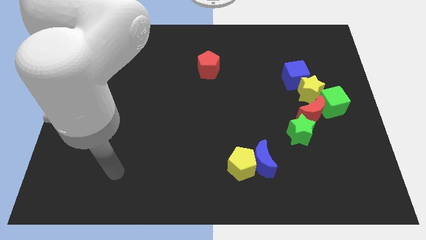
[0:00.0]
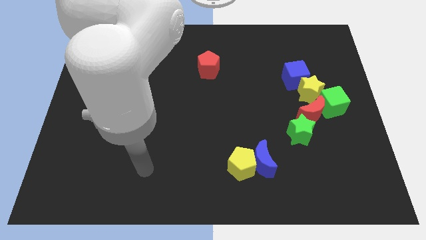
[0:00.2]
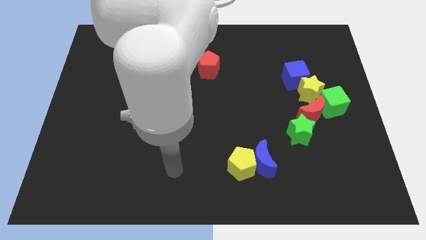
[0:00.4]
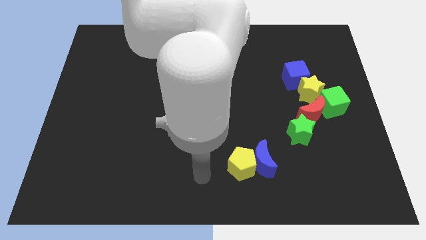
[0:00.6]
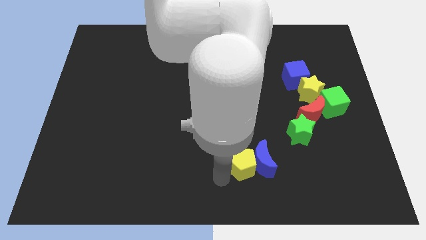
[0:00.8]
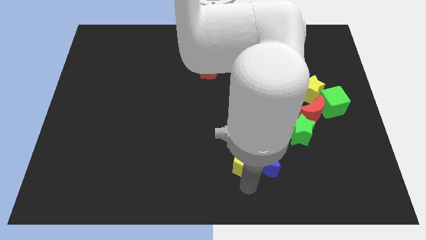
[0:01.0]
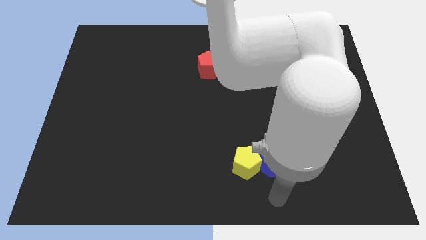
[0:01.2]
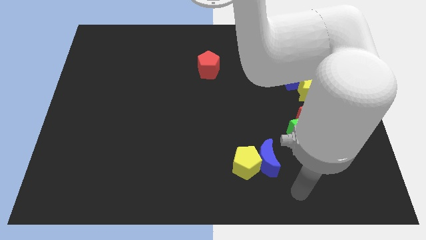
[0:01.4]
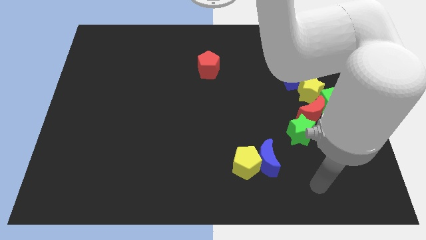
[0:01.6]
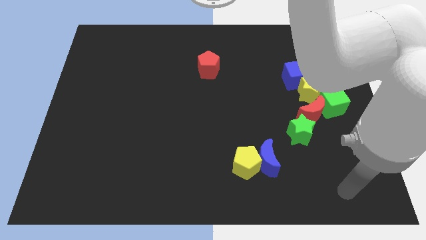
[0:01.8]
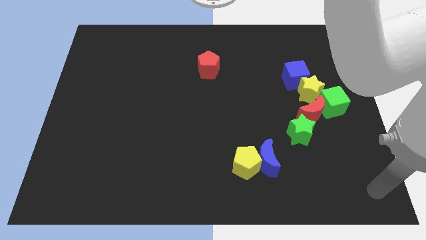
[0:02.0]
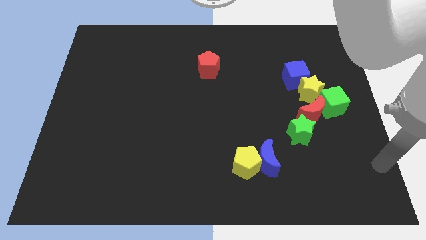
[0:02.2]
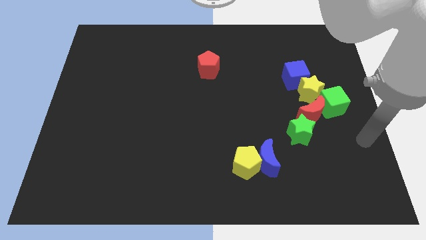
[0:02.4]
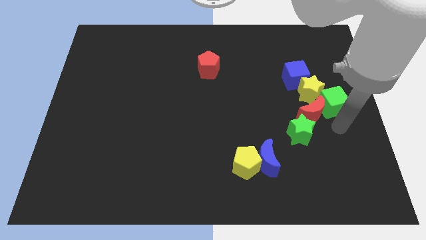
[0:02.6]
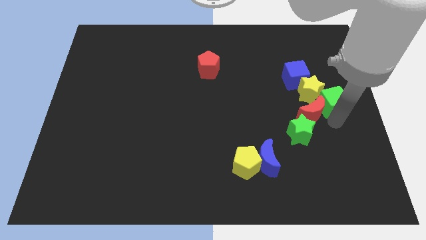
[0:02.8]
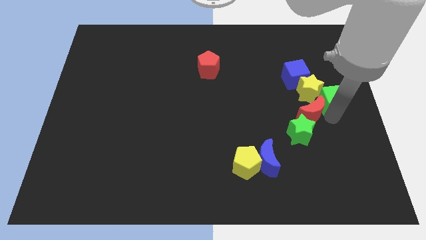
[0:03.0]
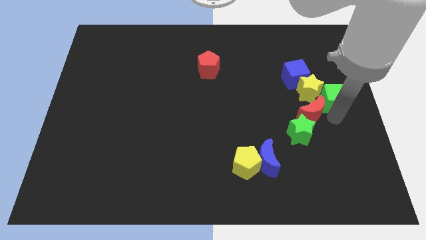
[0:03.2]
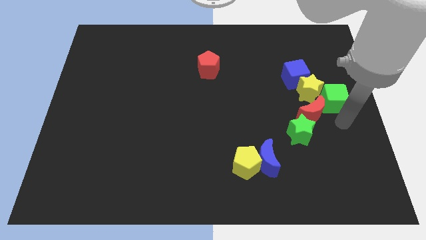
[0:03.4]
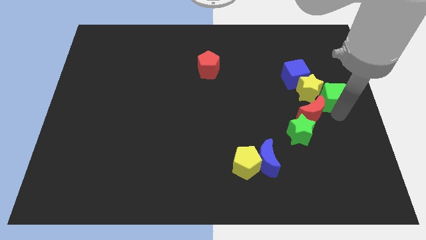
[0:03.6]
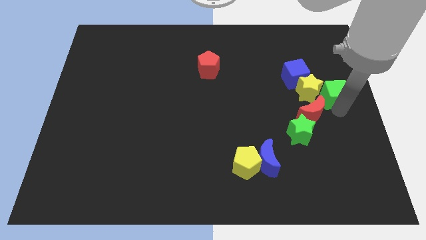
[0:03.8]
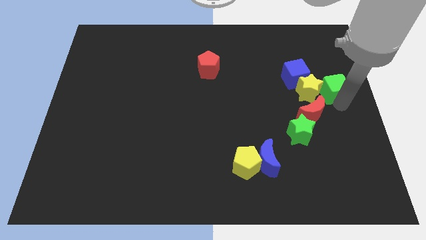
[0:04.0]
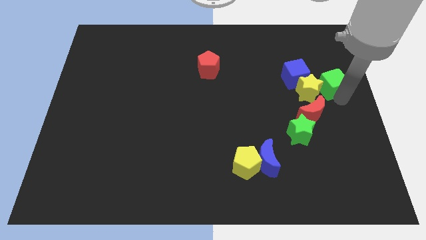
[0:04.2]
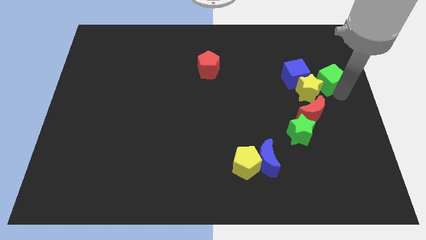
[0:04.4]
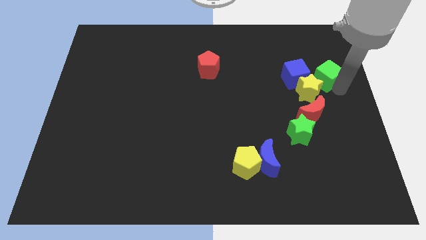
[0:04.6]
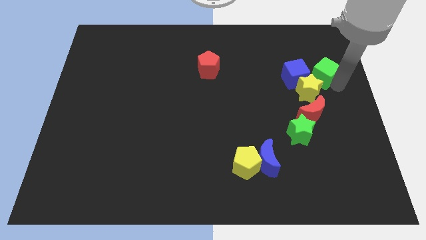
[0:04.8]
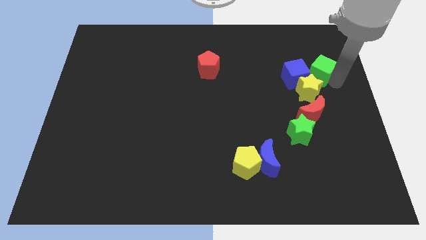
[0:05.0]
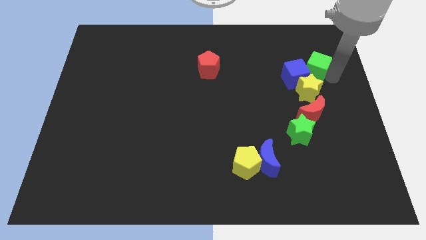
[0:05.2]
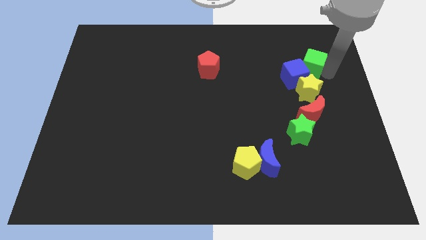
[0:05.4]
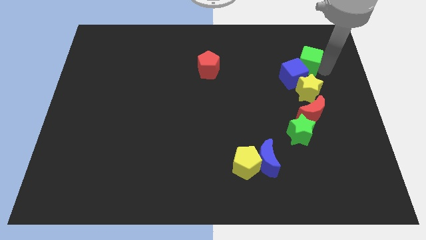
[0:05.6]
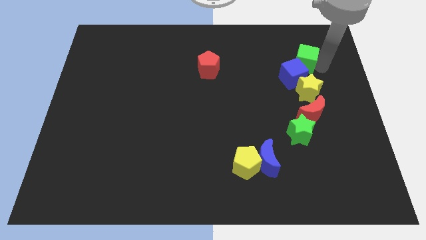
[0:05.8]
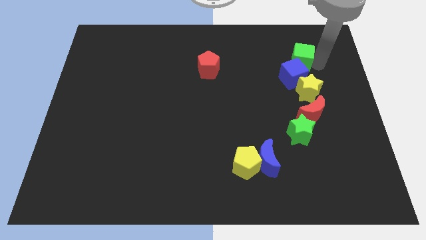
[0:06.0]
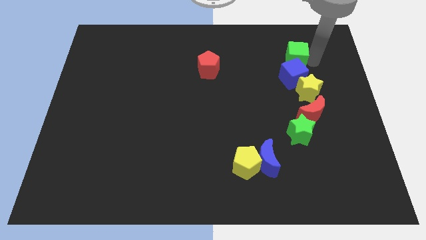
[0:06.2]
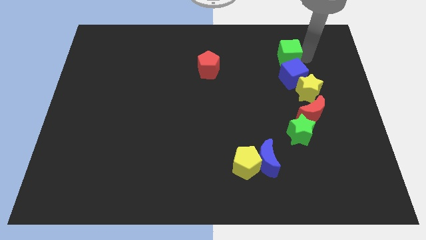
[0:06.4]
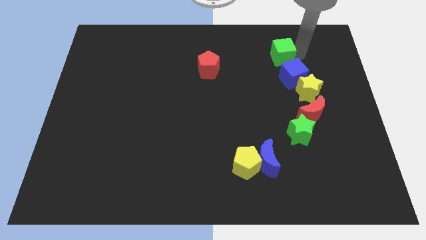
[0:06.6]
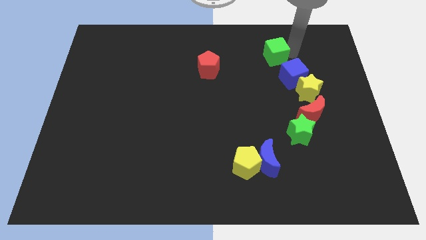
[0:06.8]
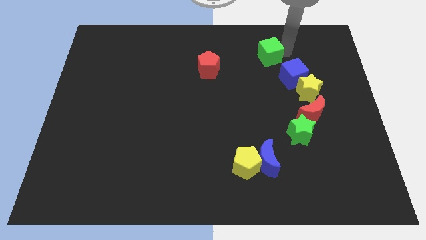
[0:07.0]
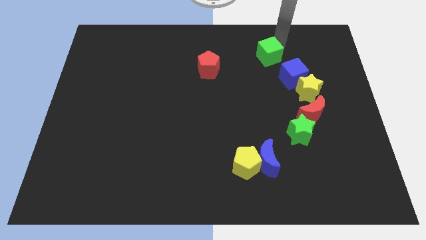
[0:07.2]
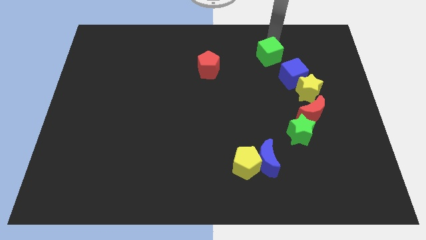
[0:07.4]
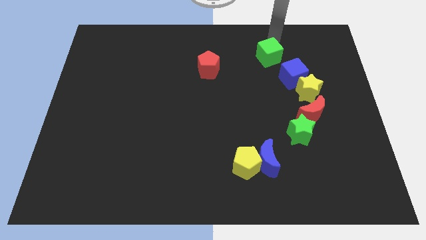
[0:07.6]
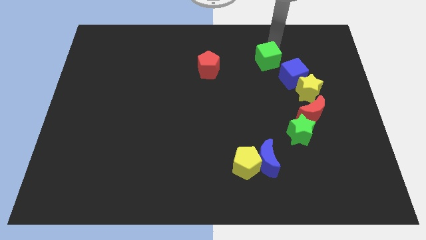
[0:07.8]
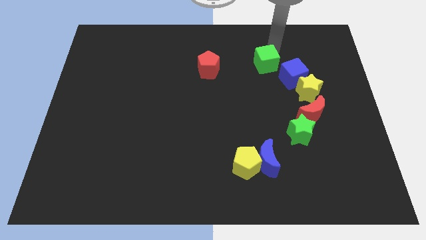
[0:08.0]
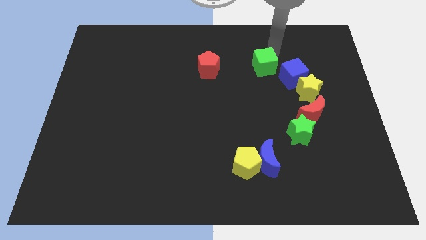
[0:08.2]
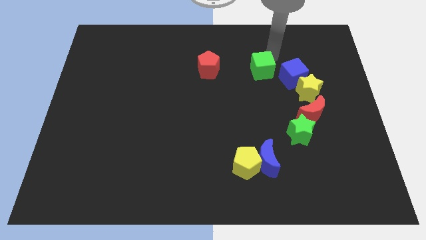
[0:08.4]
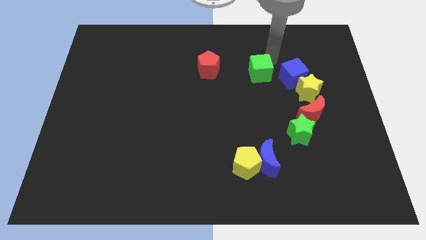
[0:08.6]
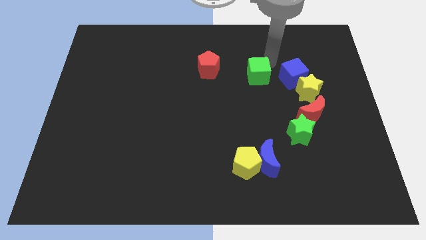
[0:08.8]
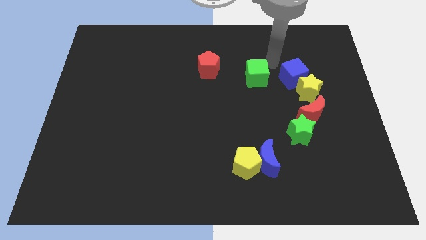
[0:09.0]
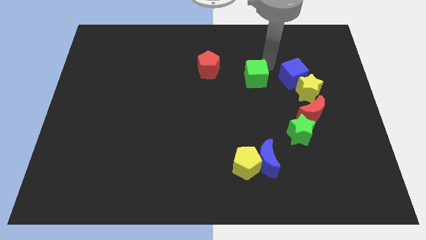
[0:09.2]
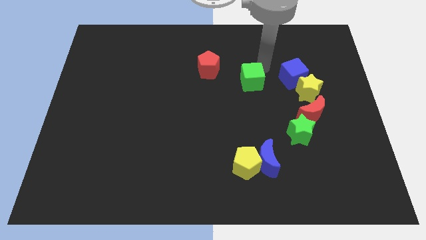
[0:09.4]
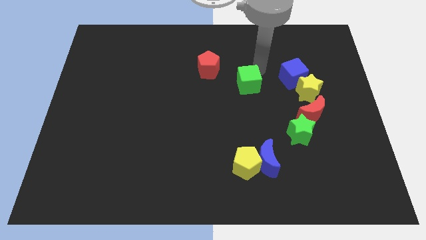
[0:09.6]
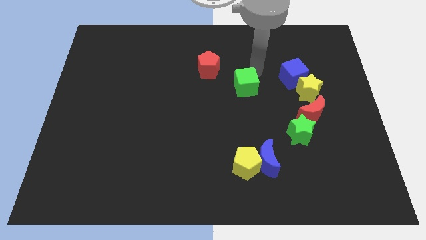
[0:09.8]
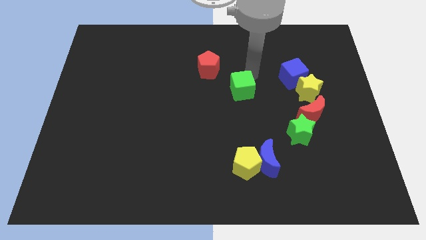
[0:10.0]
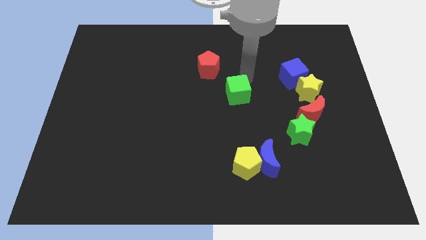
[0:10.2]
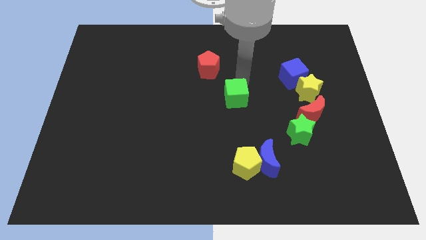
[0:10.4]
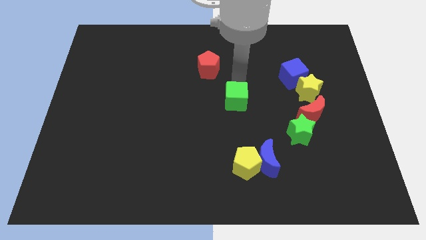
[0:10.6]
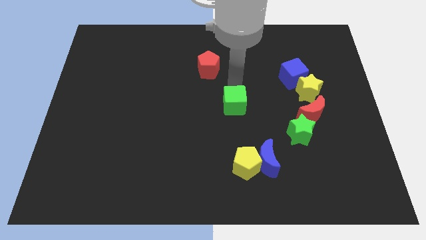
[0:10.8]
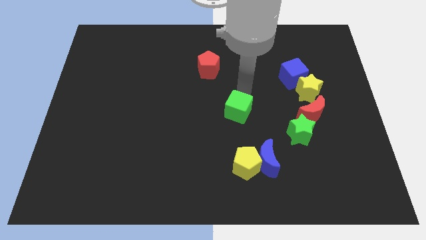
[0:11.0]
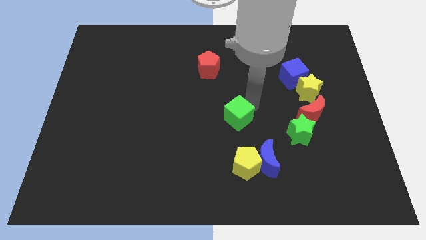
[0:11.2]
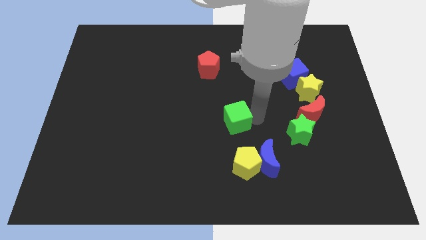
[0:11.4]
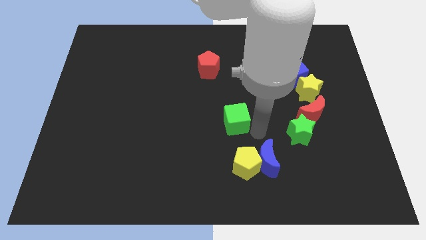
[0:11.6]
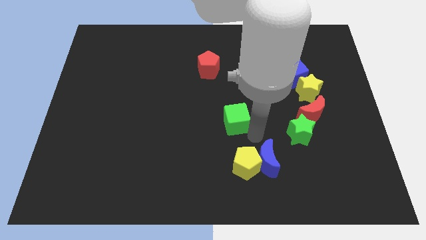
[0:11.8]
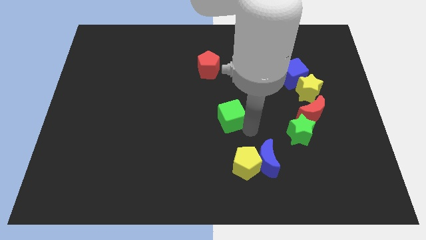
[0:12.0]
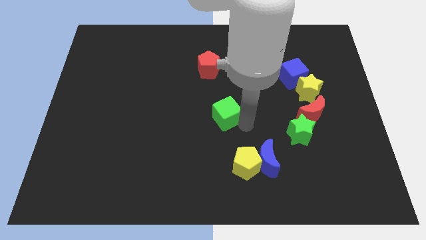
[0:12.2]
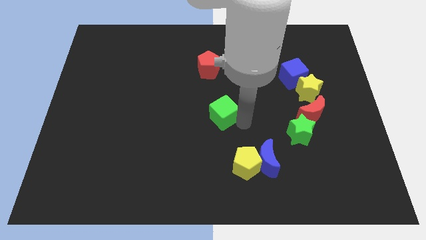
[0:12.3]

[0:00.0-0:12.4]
slide the green cube to the bottom side of the red pentagon
